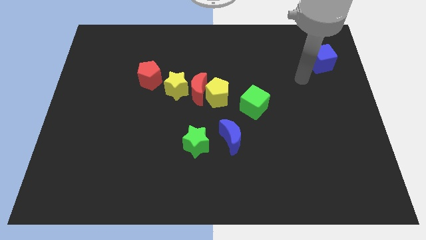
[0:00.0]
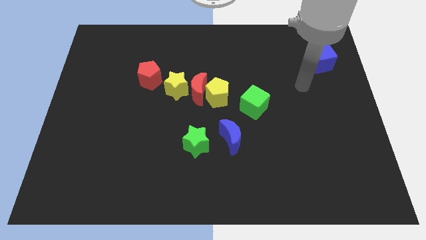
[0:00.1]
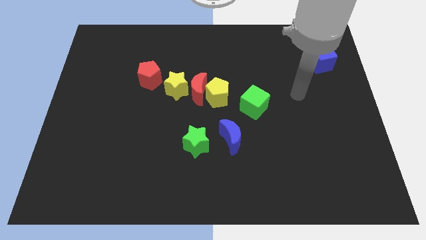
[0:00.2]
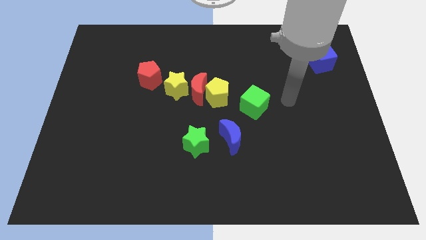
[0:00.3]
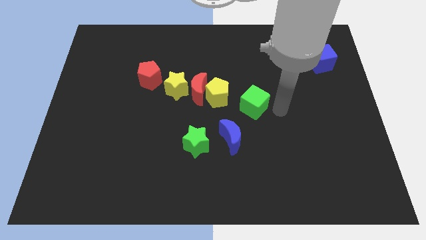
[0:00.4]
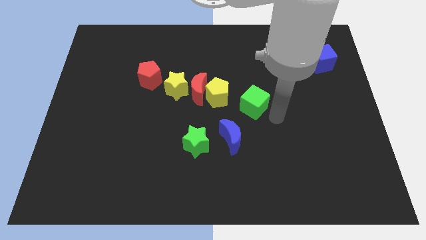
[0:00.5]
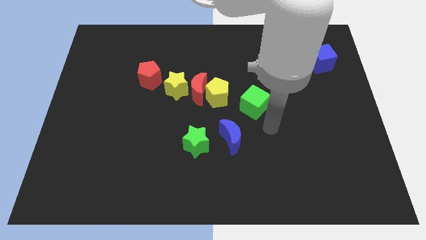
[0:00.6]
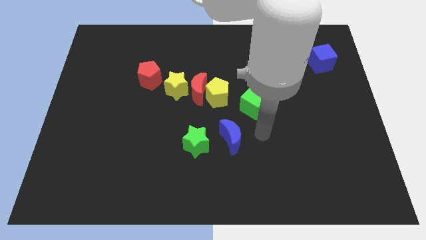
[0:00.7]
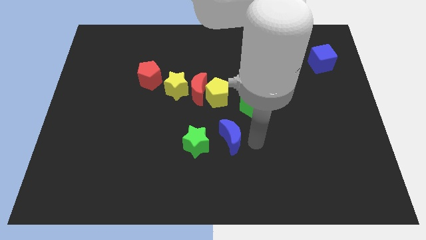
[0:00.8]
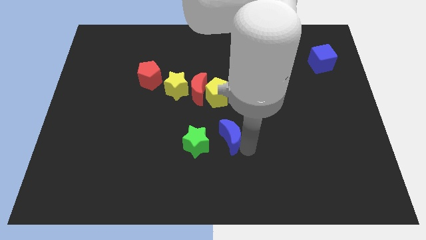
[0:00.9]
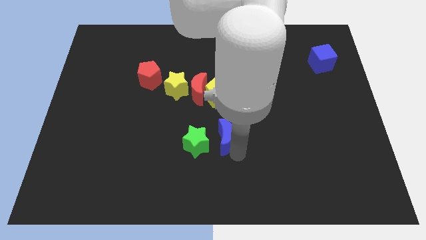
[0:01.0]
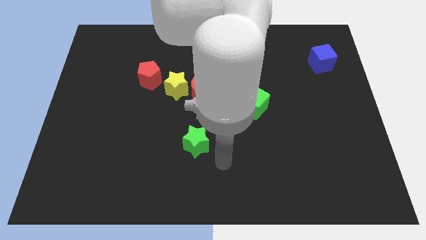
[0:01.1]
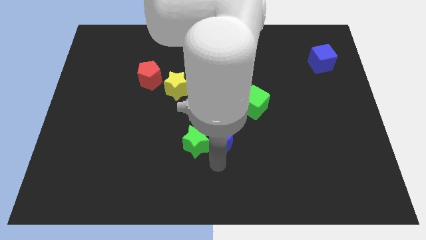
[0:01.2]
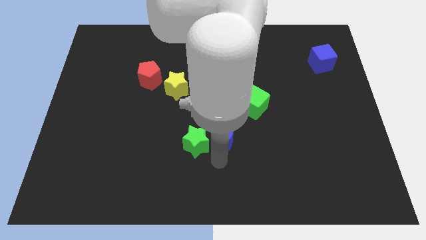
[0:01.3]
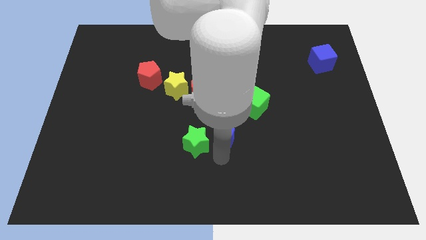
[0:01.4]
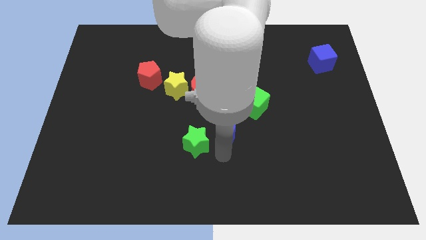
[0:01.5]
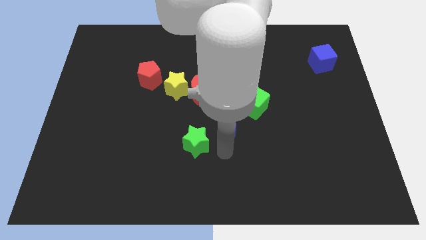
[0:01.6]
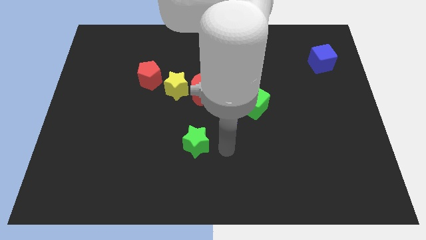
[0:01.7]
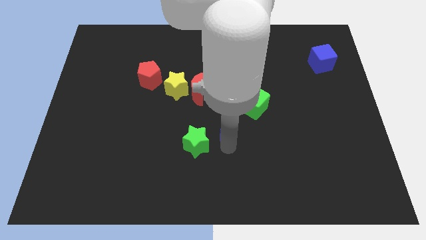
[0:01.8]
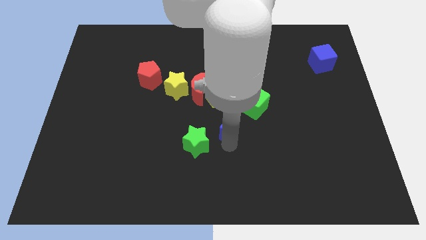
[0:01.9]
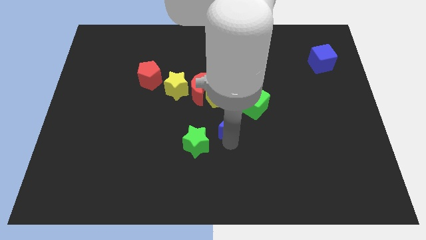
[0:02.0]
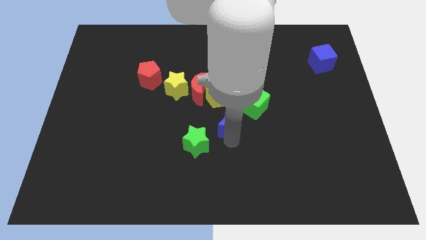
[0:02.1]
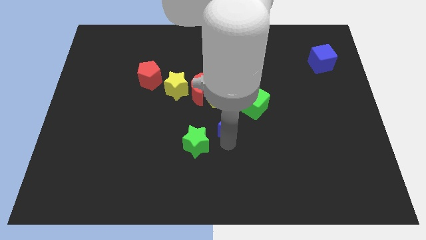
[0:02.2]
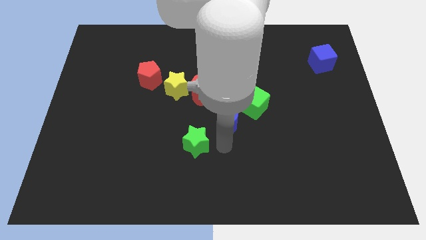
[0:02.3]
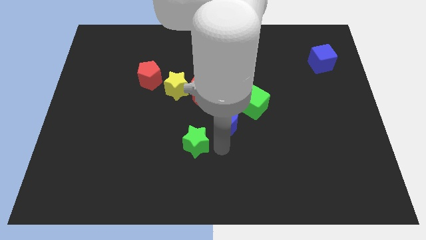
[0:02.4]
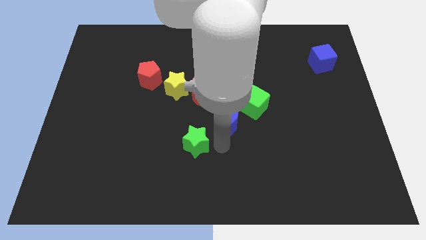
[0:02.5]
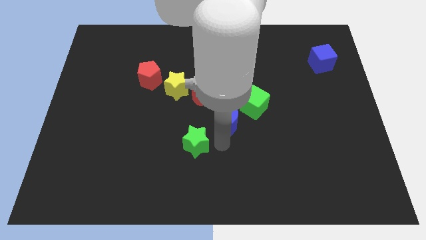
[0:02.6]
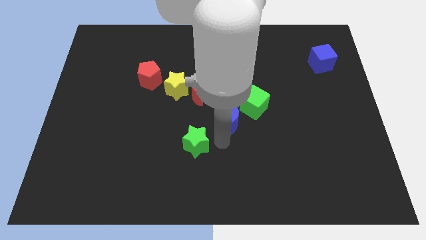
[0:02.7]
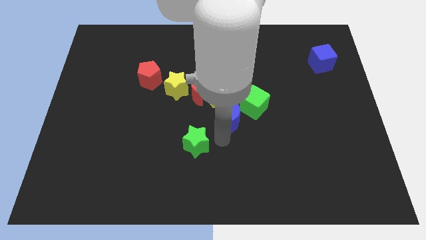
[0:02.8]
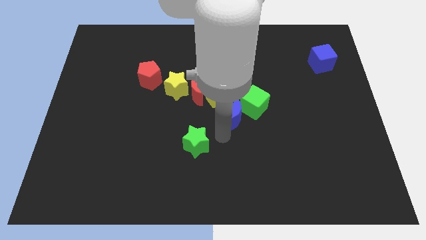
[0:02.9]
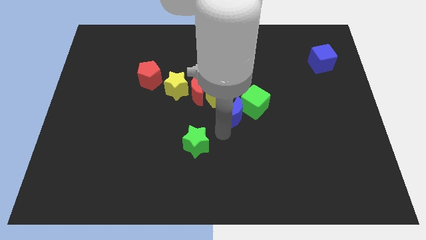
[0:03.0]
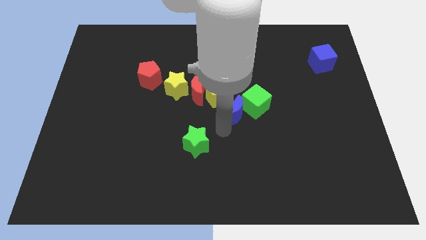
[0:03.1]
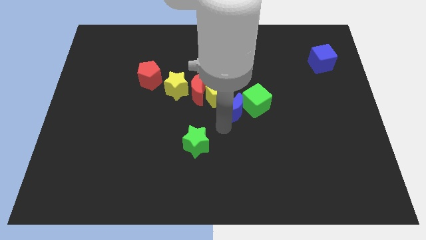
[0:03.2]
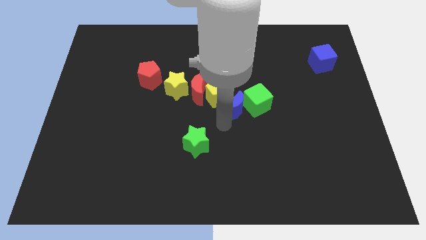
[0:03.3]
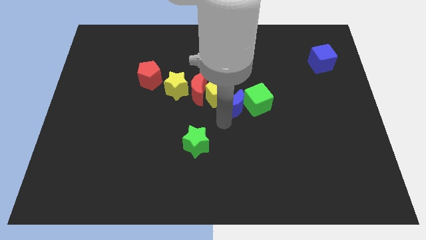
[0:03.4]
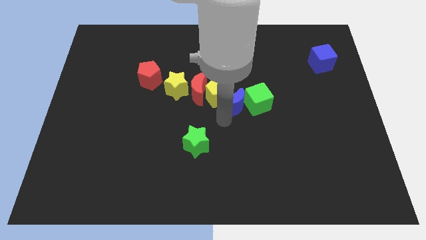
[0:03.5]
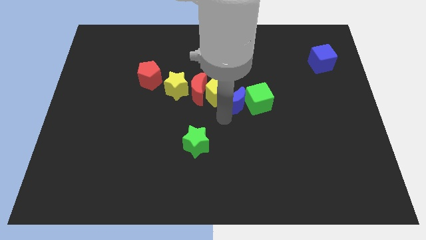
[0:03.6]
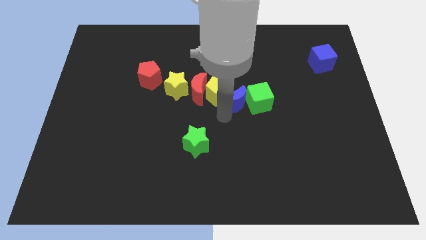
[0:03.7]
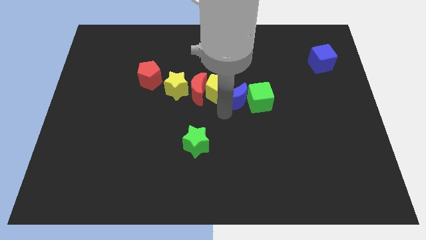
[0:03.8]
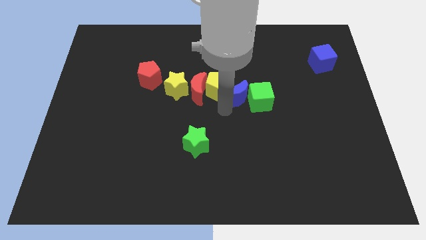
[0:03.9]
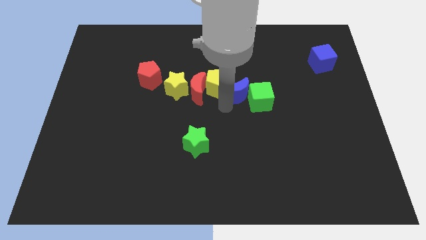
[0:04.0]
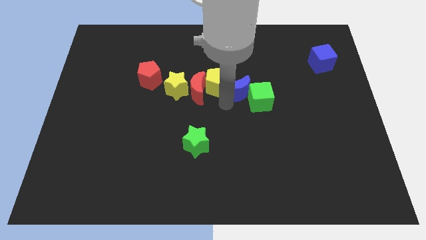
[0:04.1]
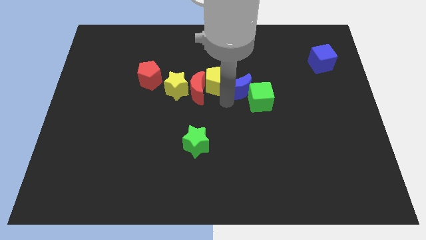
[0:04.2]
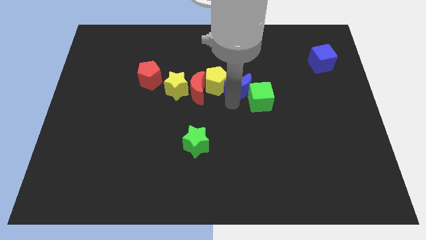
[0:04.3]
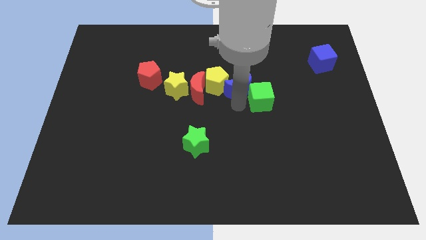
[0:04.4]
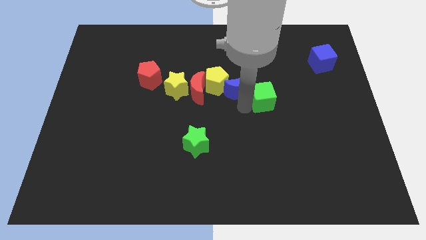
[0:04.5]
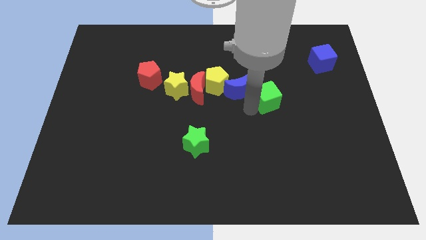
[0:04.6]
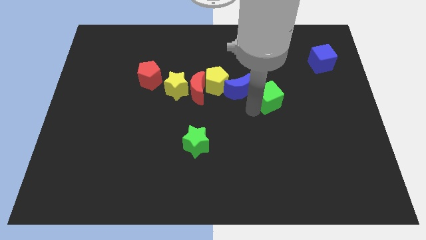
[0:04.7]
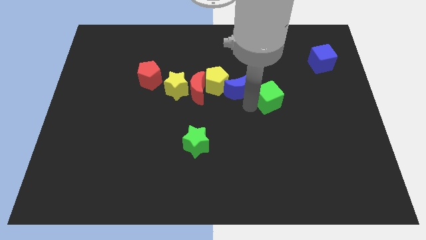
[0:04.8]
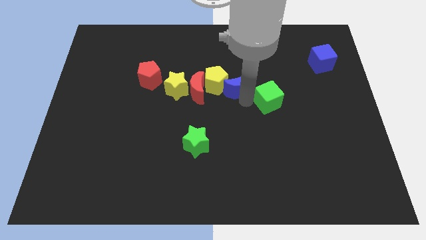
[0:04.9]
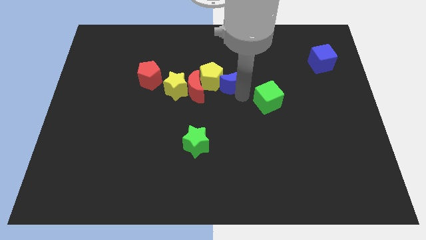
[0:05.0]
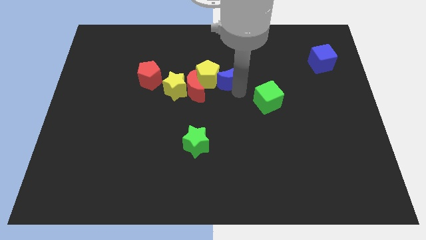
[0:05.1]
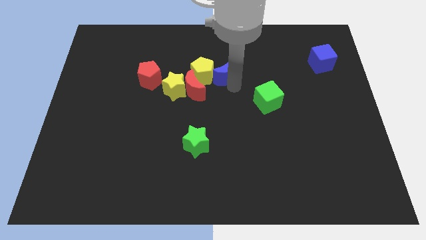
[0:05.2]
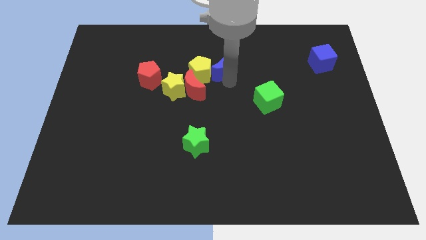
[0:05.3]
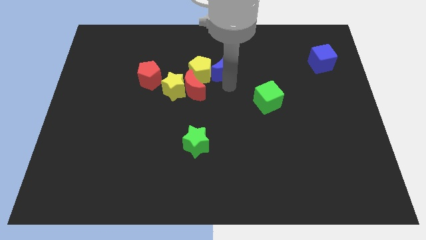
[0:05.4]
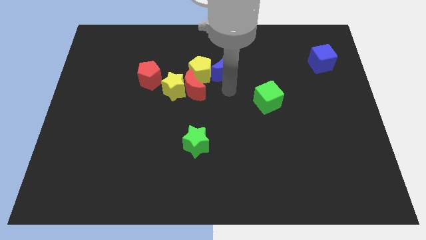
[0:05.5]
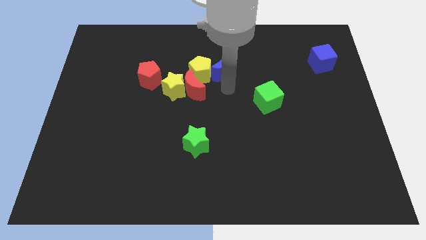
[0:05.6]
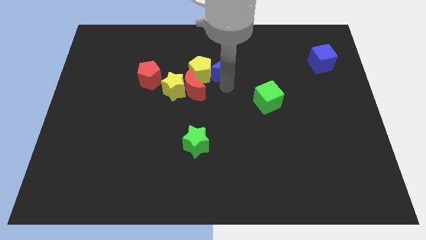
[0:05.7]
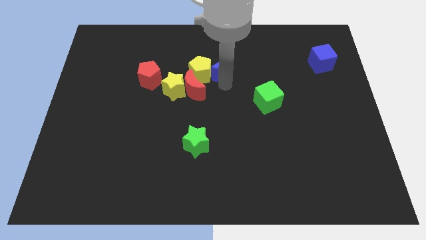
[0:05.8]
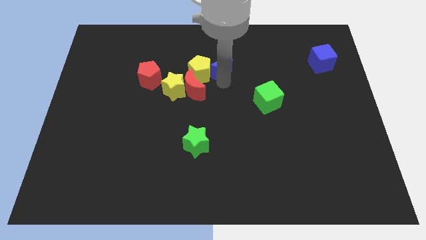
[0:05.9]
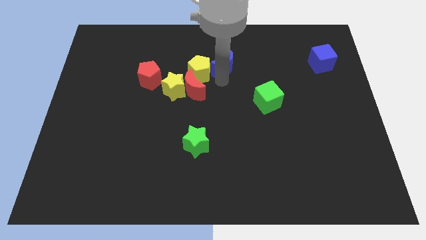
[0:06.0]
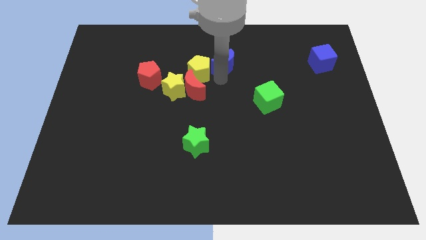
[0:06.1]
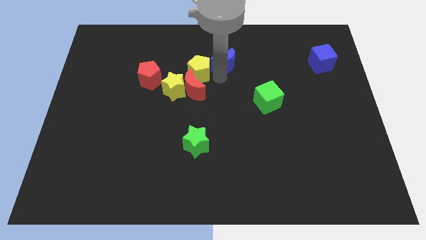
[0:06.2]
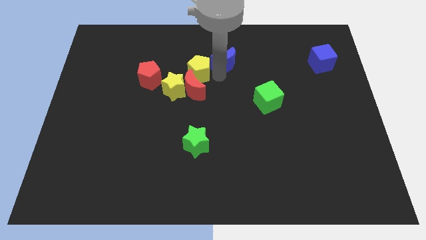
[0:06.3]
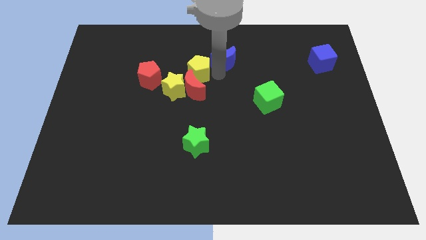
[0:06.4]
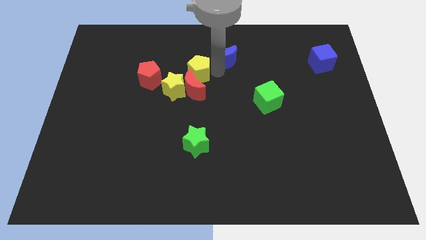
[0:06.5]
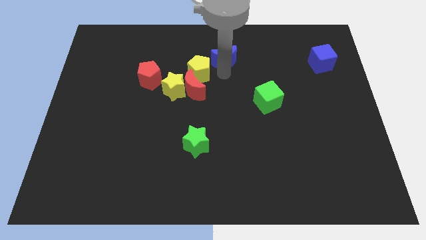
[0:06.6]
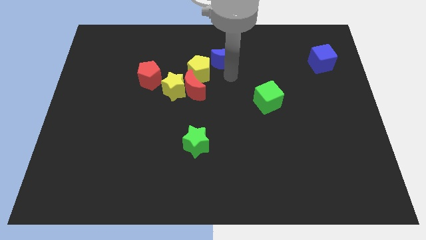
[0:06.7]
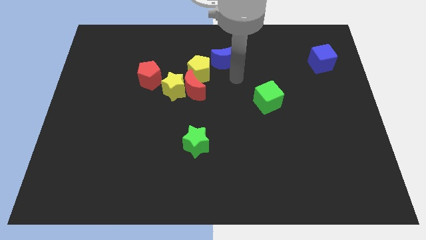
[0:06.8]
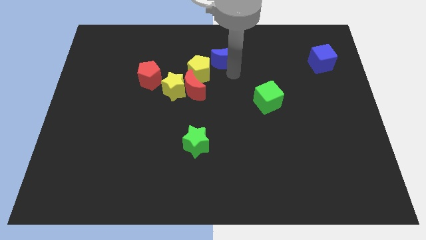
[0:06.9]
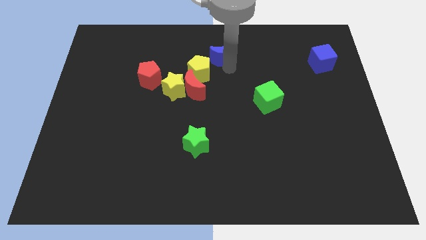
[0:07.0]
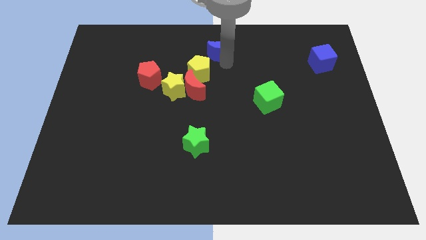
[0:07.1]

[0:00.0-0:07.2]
push the blue moon to the top

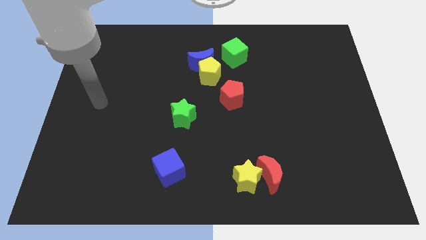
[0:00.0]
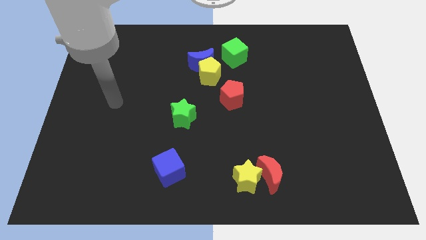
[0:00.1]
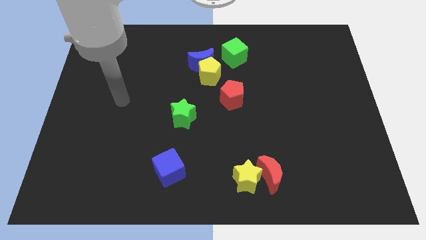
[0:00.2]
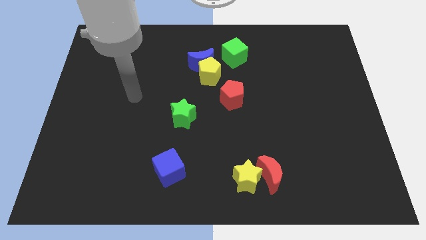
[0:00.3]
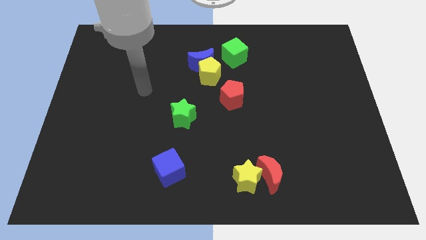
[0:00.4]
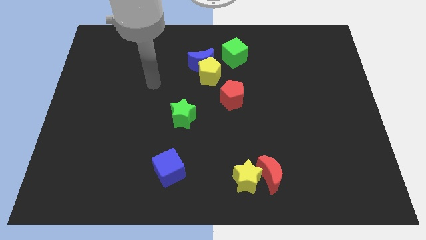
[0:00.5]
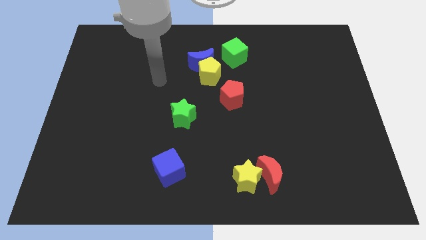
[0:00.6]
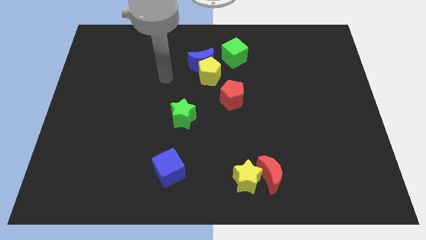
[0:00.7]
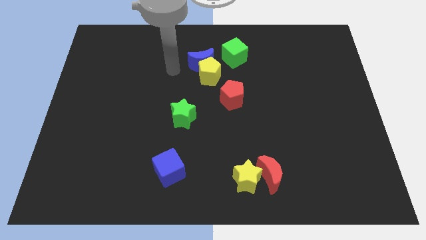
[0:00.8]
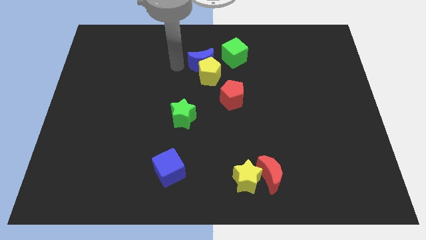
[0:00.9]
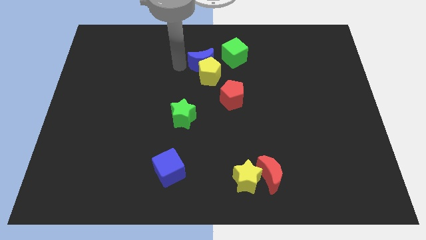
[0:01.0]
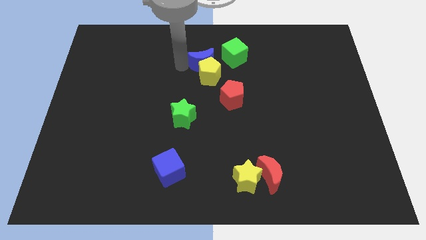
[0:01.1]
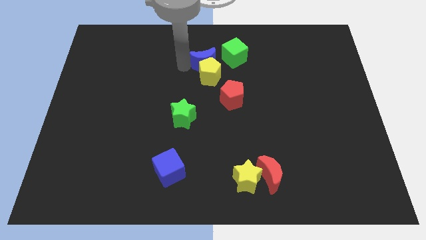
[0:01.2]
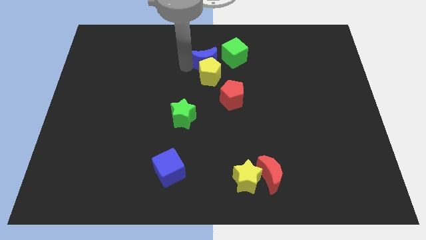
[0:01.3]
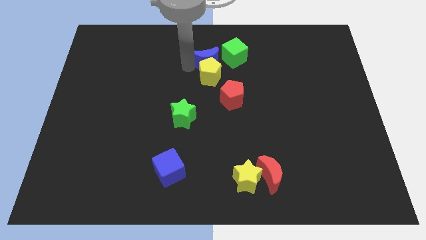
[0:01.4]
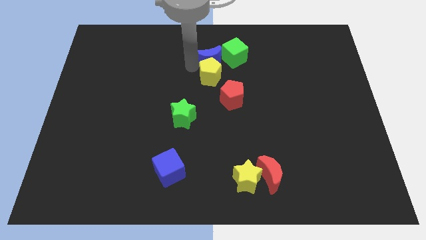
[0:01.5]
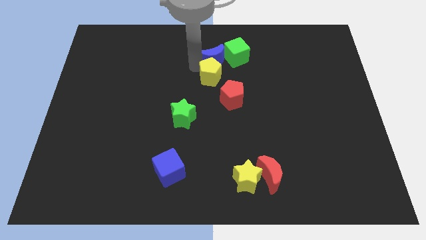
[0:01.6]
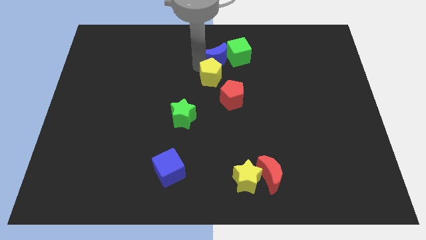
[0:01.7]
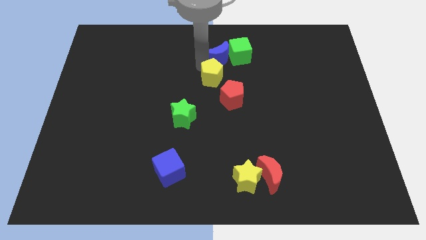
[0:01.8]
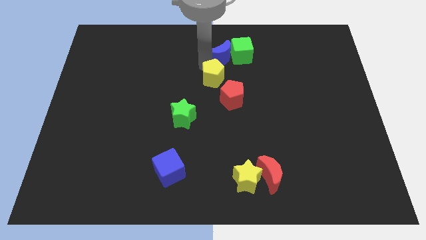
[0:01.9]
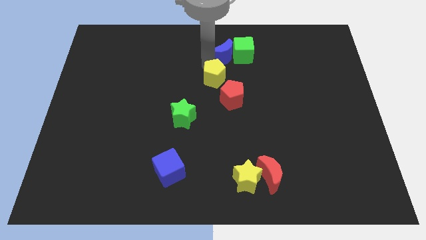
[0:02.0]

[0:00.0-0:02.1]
put the blue moon to the towards your base
